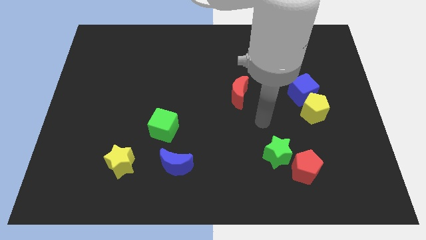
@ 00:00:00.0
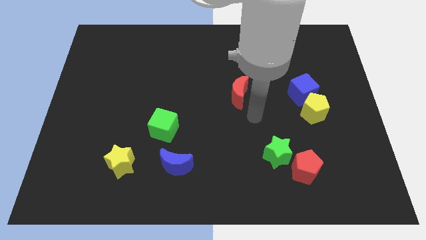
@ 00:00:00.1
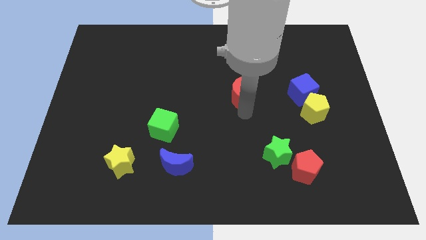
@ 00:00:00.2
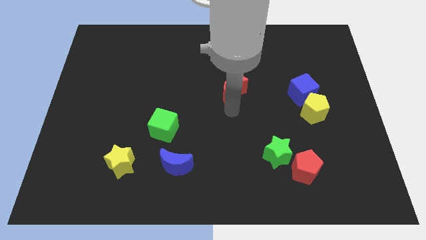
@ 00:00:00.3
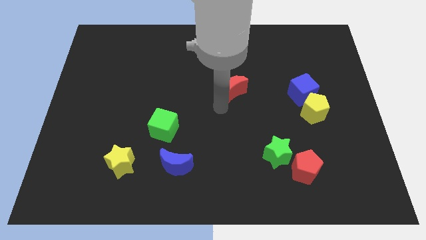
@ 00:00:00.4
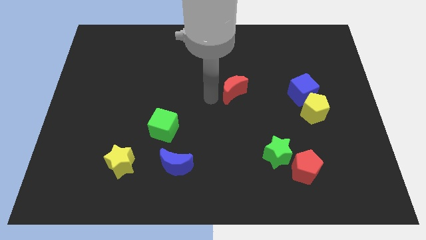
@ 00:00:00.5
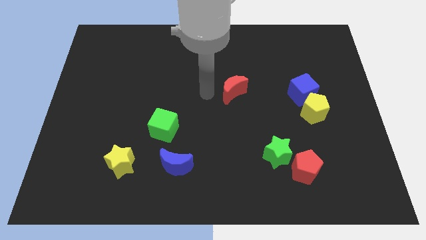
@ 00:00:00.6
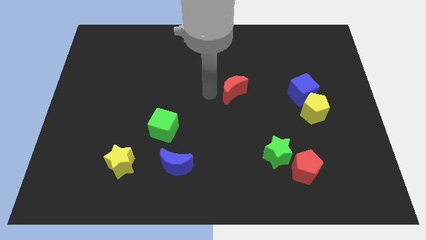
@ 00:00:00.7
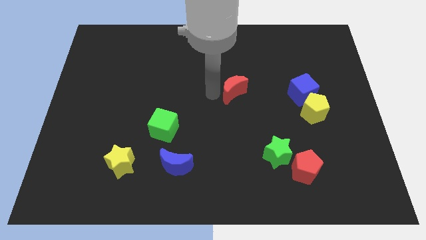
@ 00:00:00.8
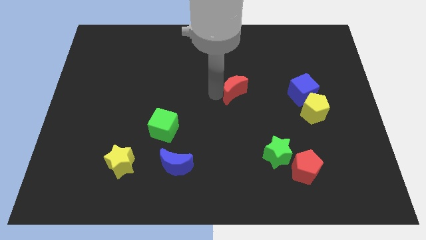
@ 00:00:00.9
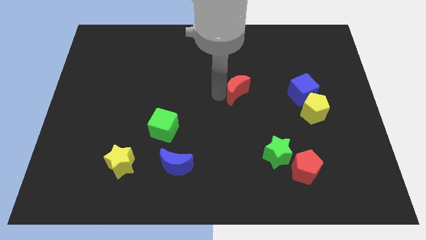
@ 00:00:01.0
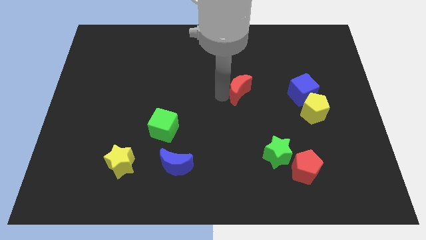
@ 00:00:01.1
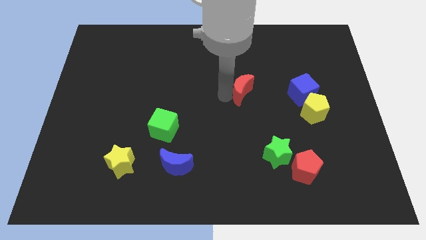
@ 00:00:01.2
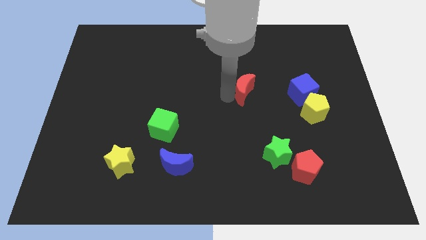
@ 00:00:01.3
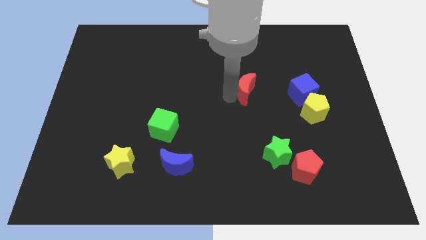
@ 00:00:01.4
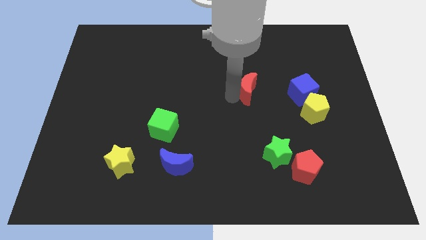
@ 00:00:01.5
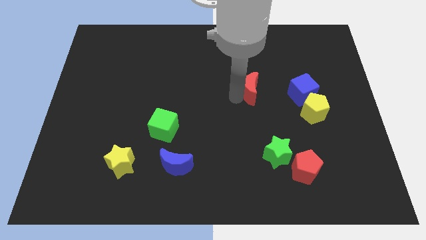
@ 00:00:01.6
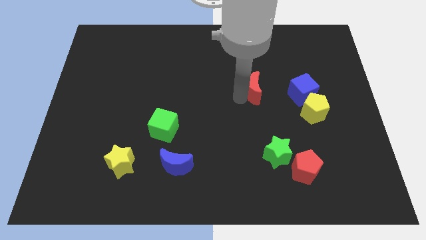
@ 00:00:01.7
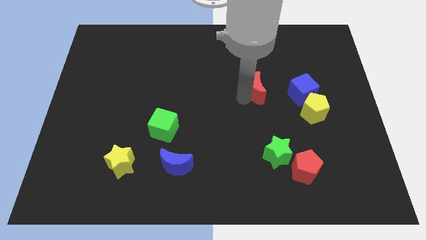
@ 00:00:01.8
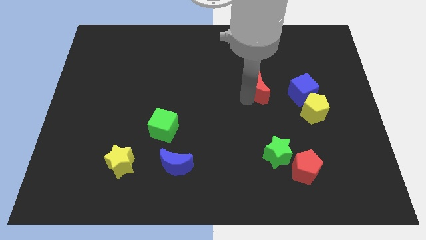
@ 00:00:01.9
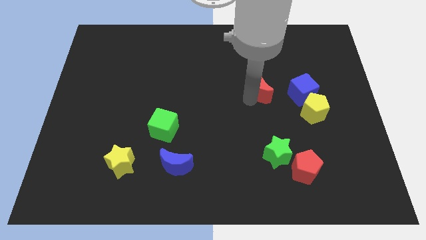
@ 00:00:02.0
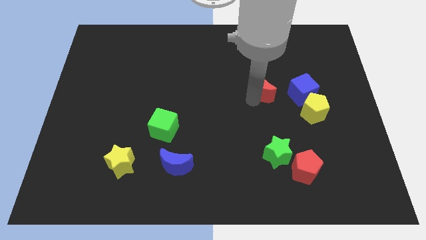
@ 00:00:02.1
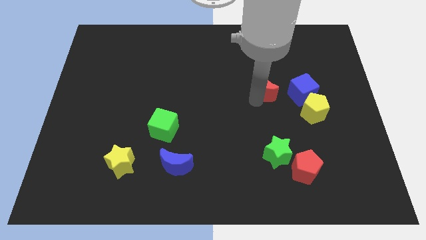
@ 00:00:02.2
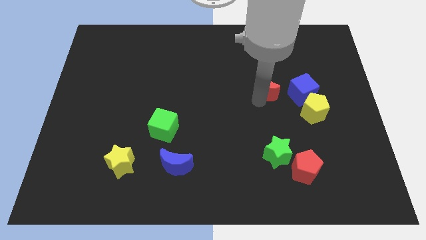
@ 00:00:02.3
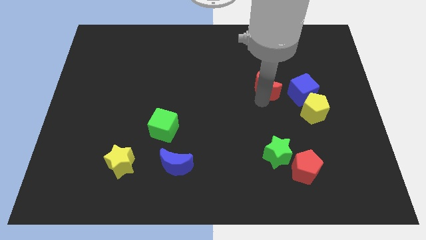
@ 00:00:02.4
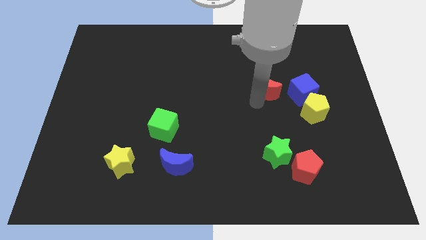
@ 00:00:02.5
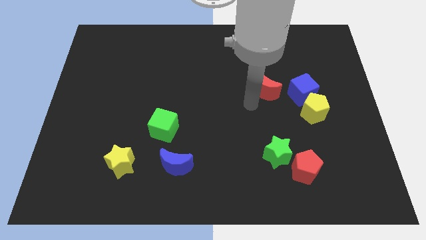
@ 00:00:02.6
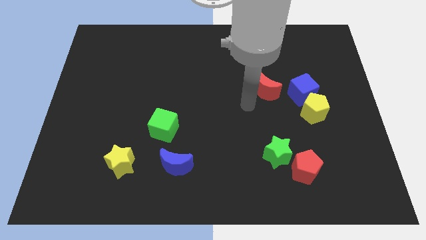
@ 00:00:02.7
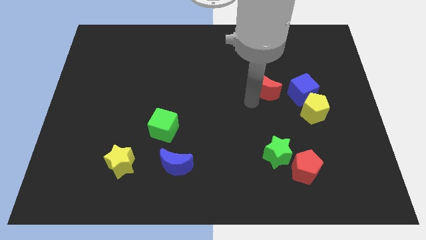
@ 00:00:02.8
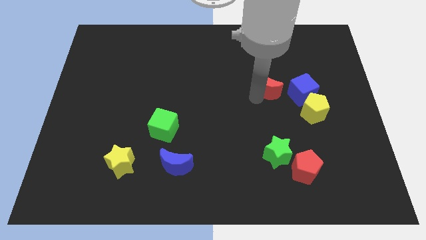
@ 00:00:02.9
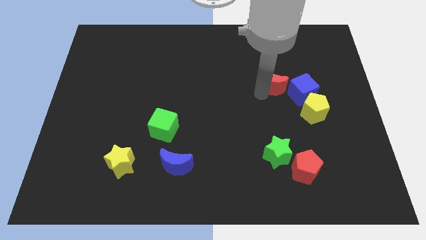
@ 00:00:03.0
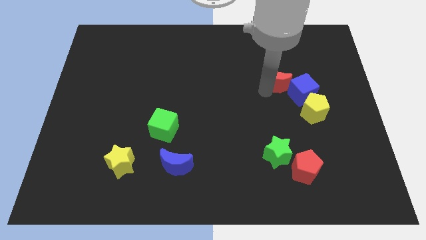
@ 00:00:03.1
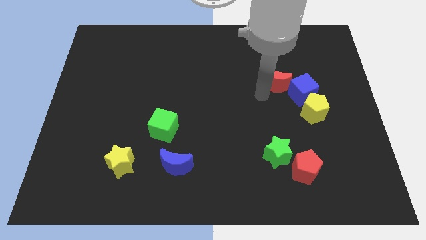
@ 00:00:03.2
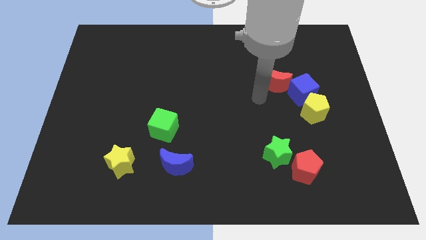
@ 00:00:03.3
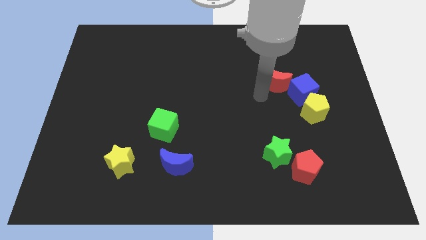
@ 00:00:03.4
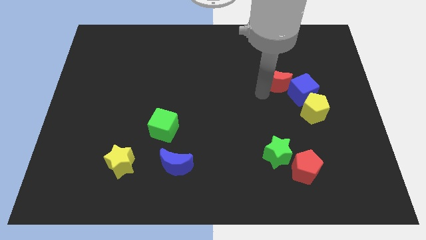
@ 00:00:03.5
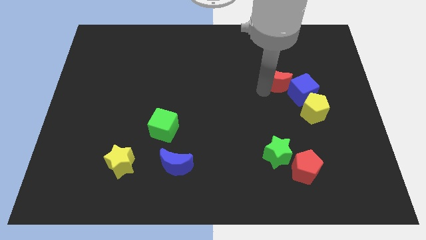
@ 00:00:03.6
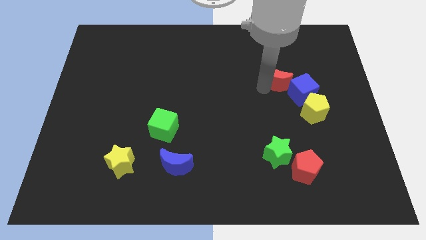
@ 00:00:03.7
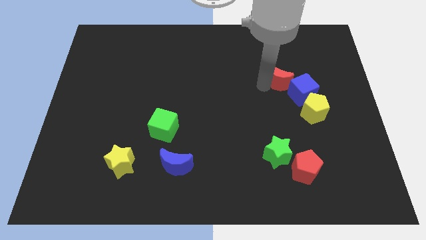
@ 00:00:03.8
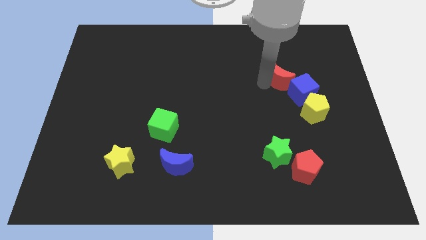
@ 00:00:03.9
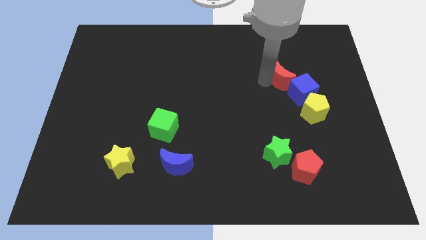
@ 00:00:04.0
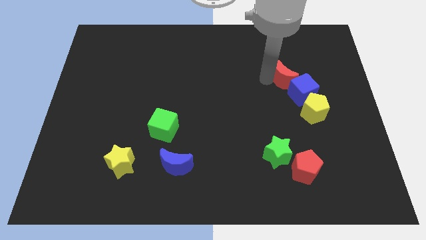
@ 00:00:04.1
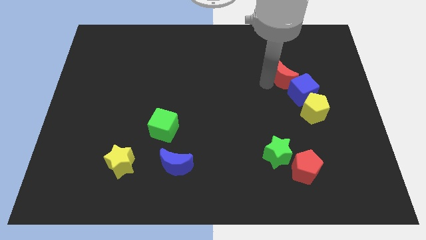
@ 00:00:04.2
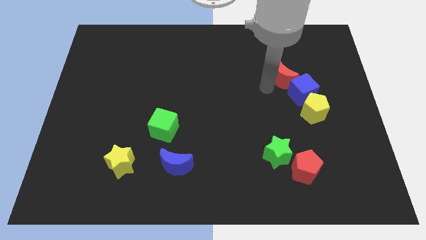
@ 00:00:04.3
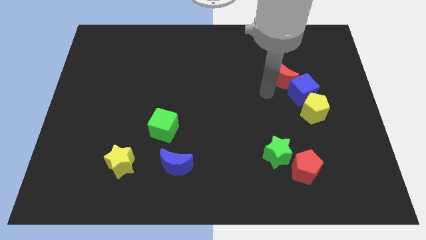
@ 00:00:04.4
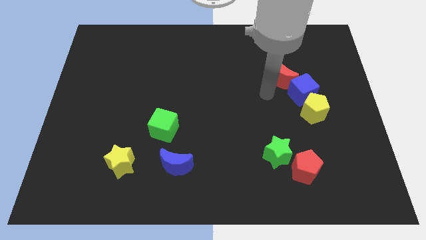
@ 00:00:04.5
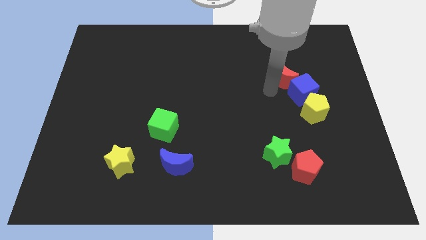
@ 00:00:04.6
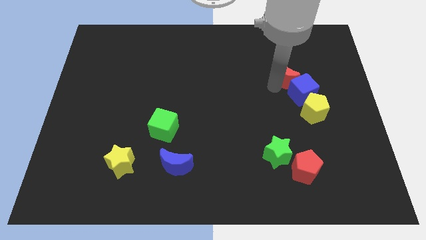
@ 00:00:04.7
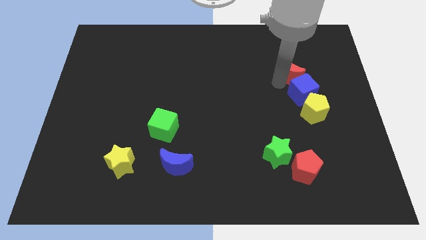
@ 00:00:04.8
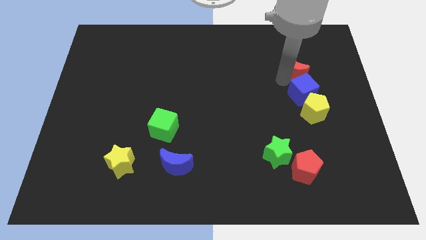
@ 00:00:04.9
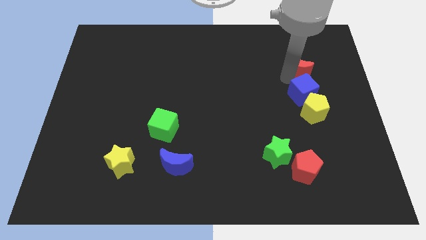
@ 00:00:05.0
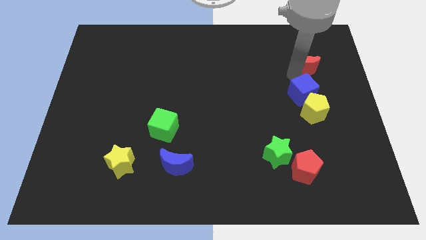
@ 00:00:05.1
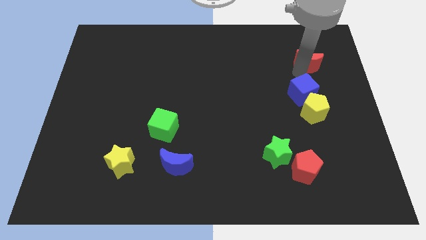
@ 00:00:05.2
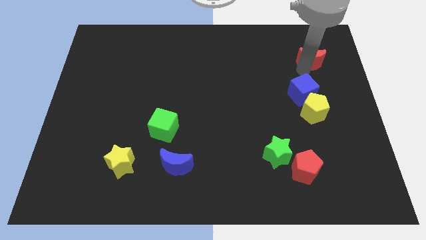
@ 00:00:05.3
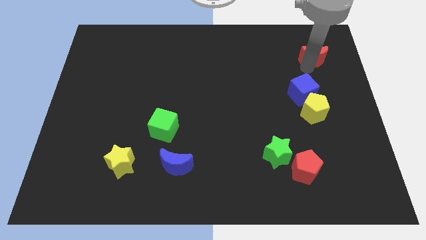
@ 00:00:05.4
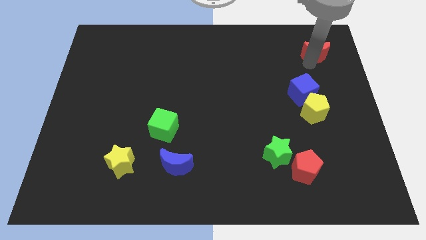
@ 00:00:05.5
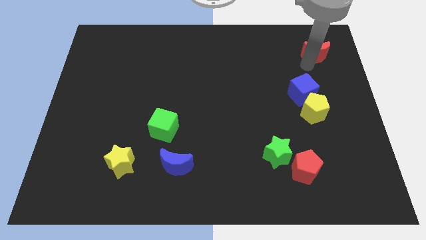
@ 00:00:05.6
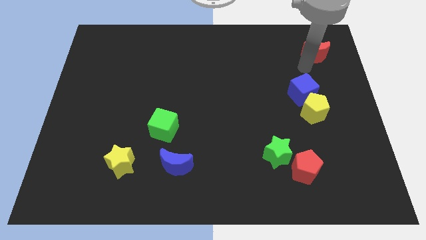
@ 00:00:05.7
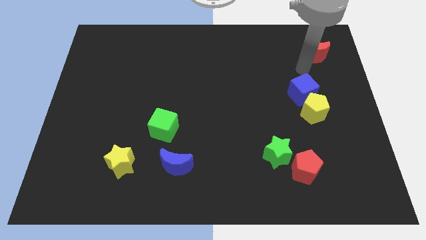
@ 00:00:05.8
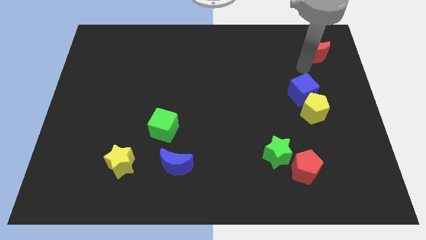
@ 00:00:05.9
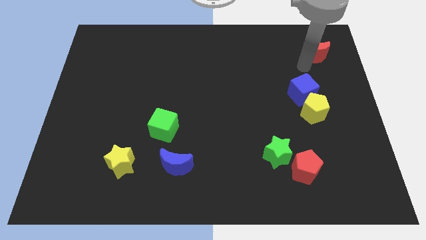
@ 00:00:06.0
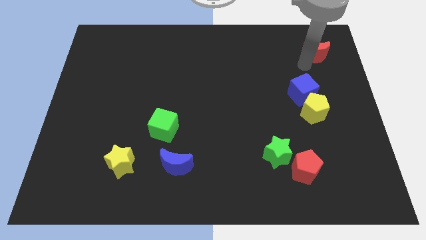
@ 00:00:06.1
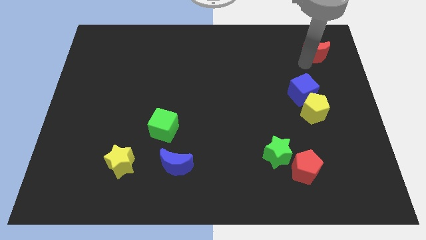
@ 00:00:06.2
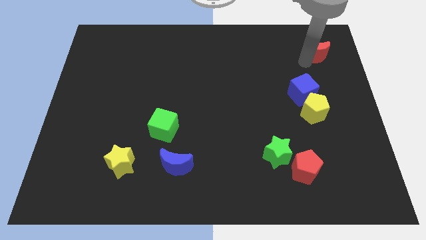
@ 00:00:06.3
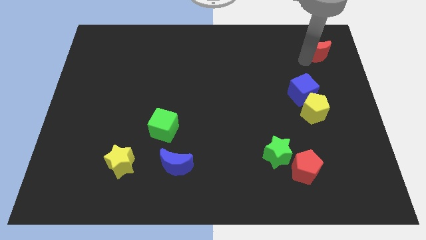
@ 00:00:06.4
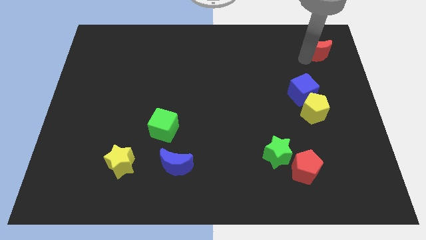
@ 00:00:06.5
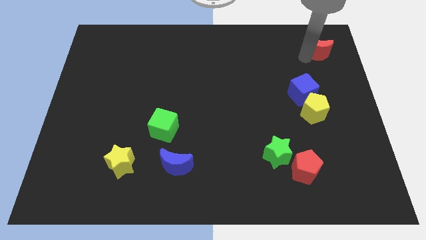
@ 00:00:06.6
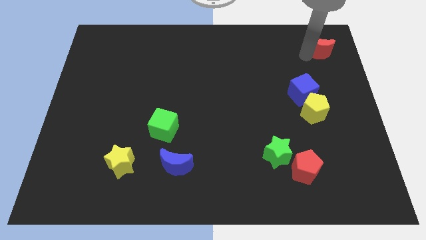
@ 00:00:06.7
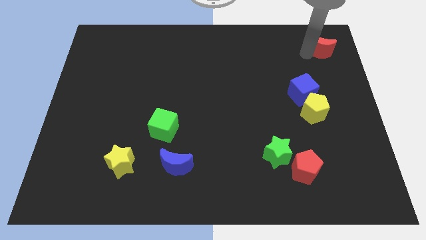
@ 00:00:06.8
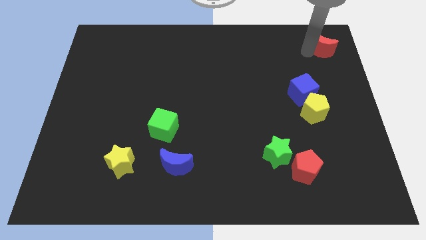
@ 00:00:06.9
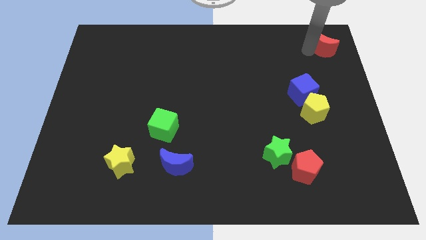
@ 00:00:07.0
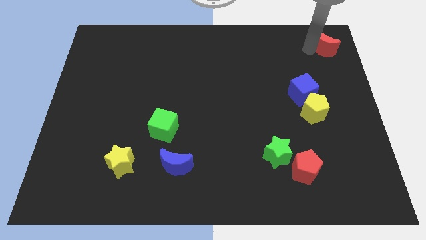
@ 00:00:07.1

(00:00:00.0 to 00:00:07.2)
move the red moon to the top right of the board

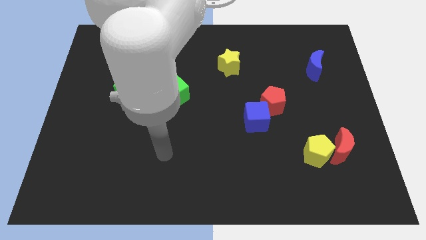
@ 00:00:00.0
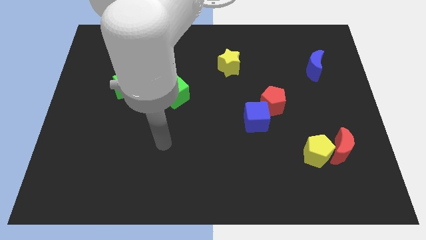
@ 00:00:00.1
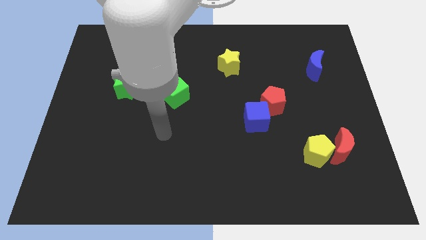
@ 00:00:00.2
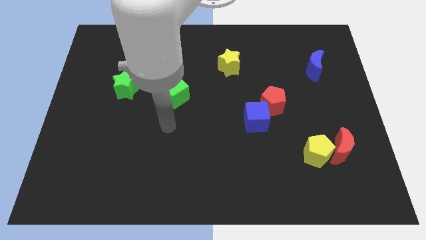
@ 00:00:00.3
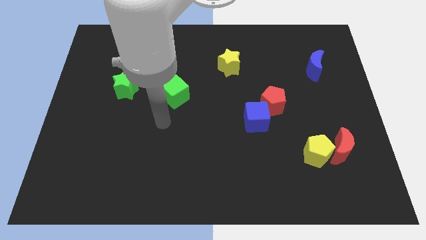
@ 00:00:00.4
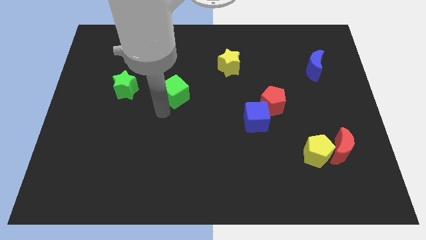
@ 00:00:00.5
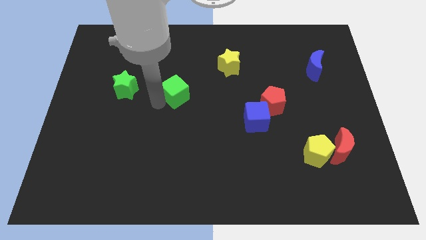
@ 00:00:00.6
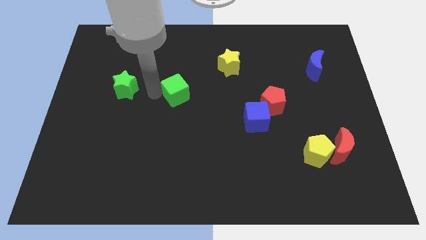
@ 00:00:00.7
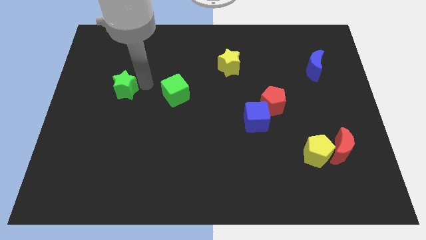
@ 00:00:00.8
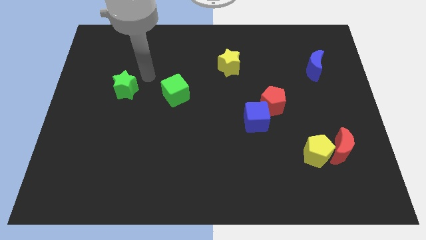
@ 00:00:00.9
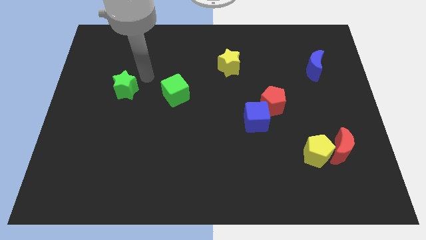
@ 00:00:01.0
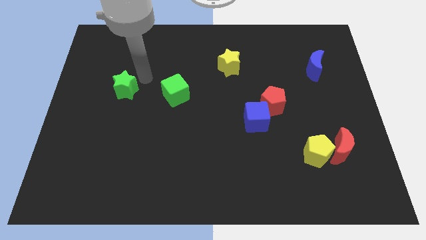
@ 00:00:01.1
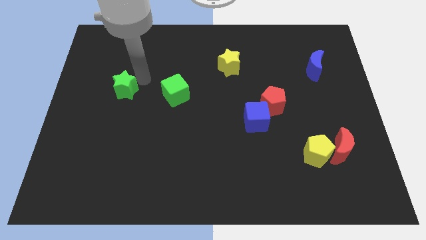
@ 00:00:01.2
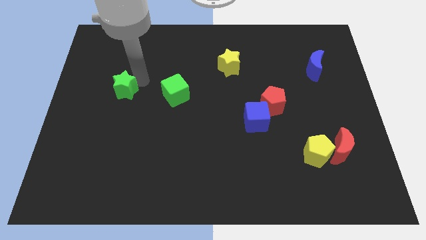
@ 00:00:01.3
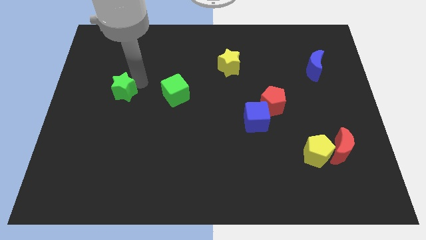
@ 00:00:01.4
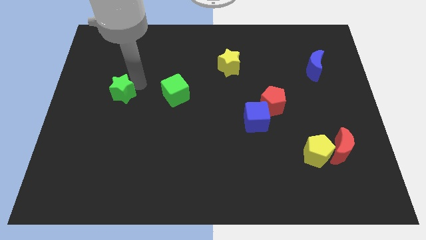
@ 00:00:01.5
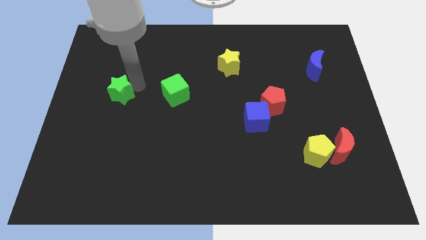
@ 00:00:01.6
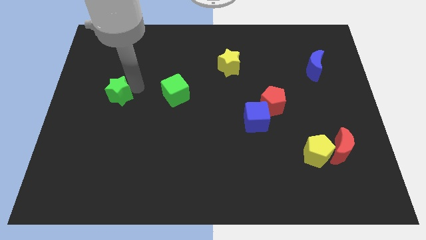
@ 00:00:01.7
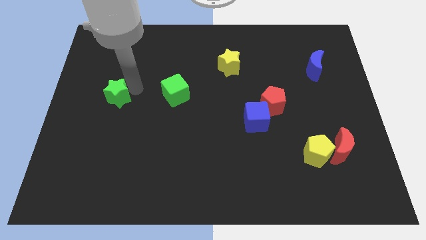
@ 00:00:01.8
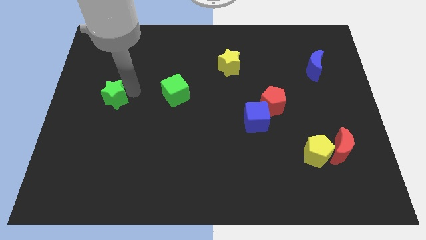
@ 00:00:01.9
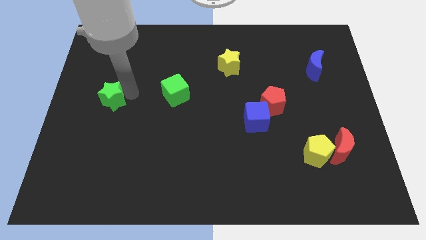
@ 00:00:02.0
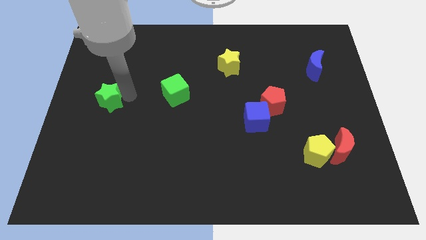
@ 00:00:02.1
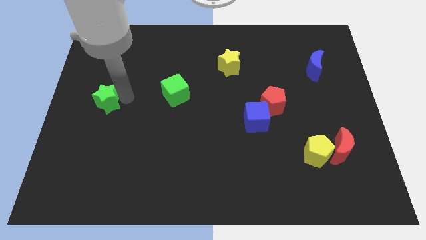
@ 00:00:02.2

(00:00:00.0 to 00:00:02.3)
put the green star to the left side
